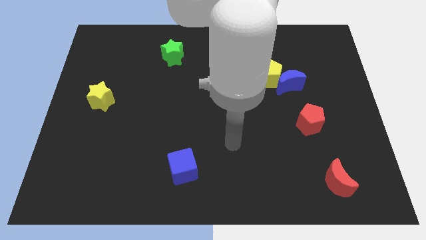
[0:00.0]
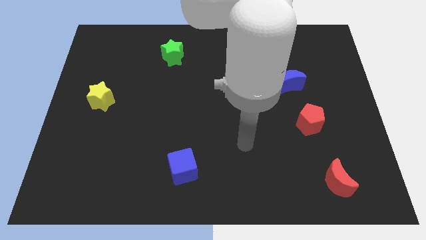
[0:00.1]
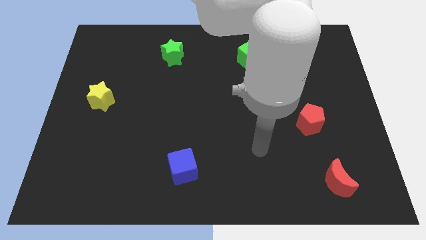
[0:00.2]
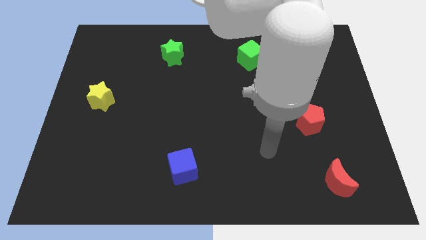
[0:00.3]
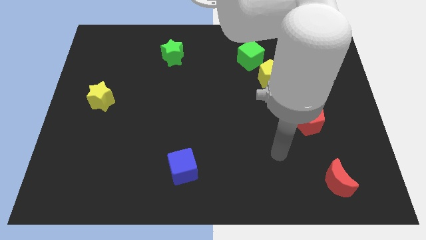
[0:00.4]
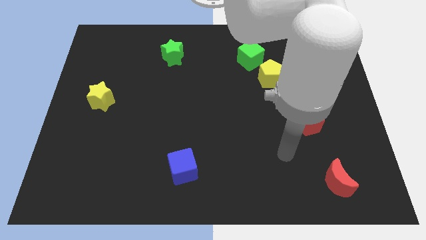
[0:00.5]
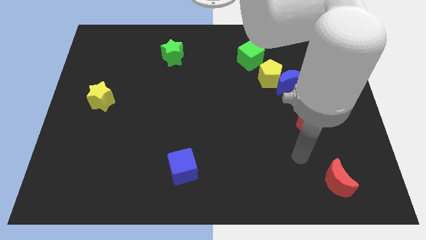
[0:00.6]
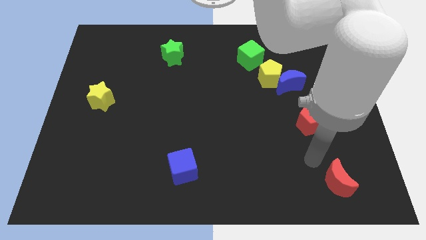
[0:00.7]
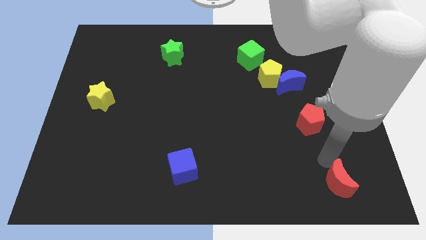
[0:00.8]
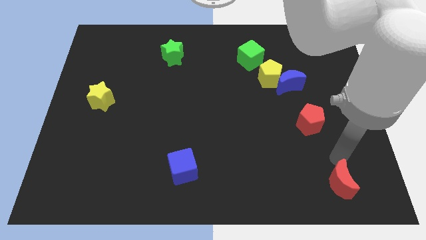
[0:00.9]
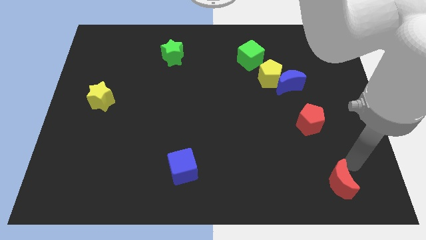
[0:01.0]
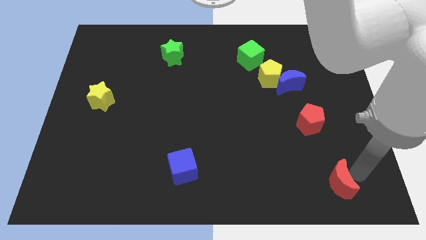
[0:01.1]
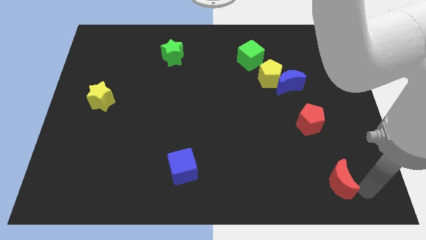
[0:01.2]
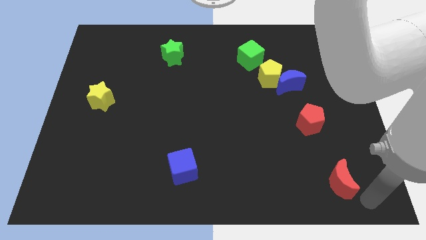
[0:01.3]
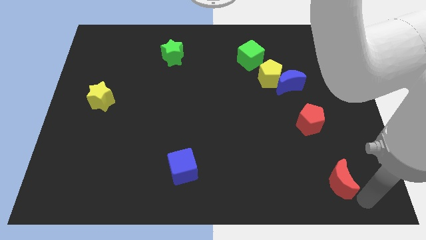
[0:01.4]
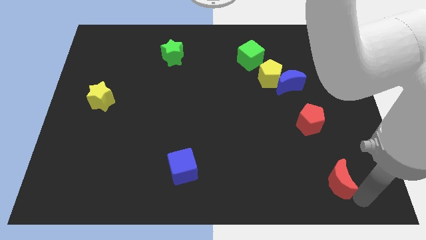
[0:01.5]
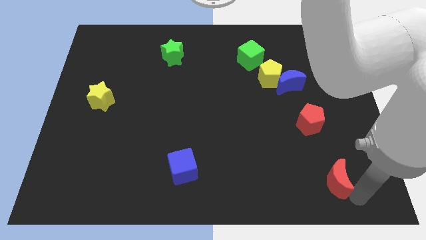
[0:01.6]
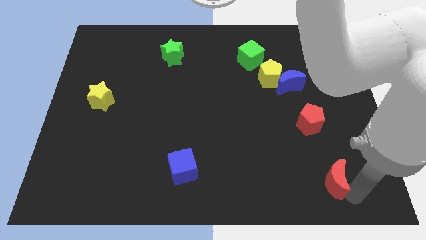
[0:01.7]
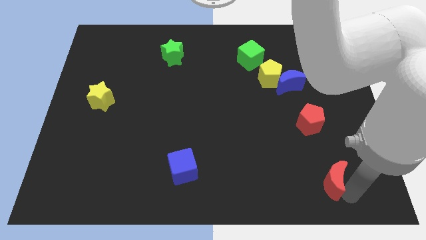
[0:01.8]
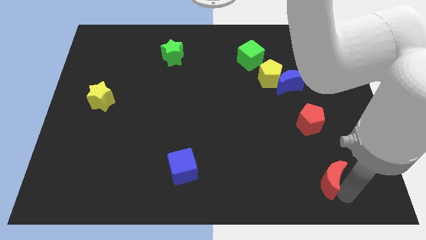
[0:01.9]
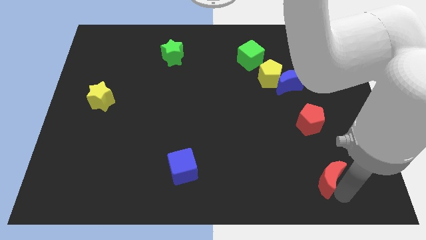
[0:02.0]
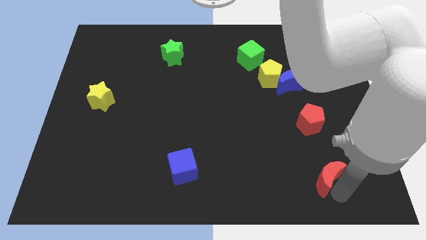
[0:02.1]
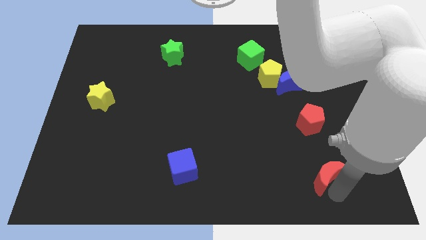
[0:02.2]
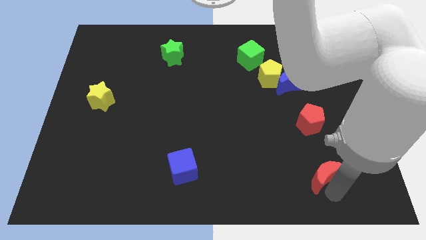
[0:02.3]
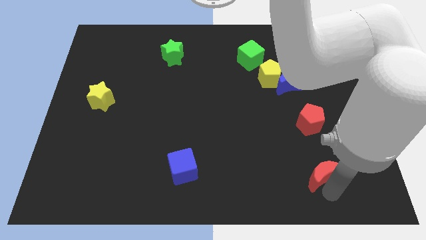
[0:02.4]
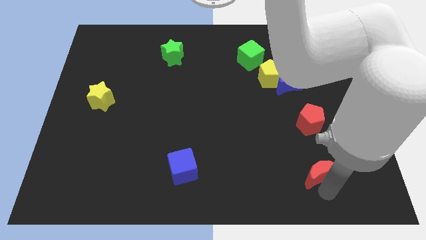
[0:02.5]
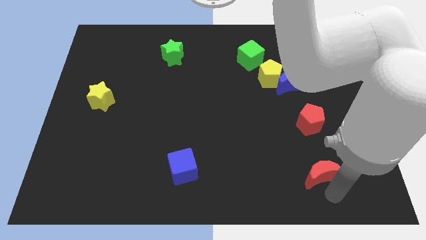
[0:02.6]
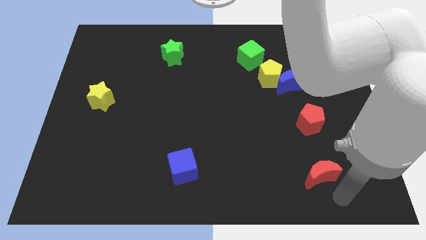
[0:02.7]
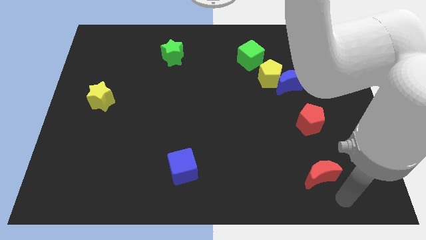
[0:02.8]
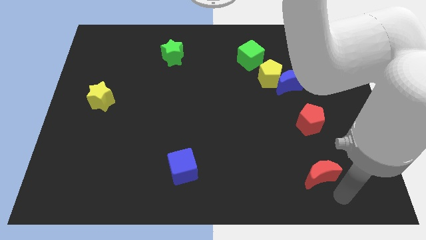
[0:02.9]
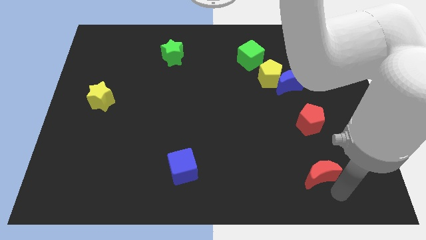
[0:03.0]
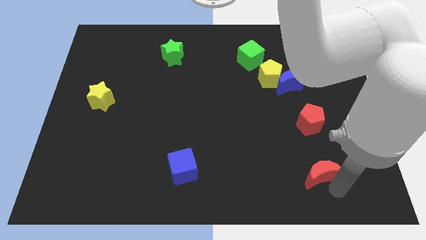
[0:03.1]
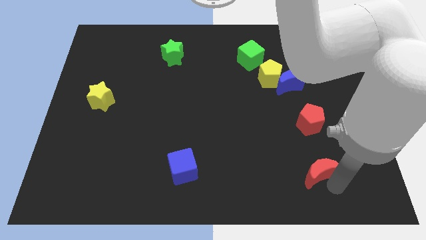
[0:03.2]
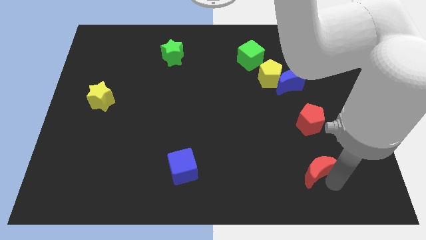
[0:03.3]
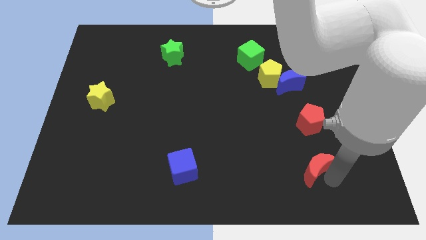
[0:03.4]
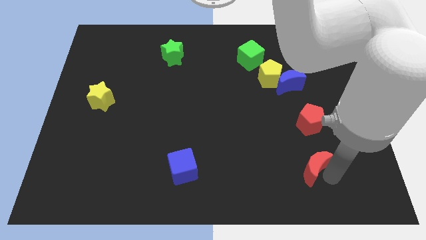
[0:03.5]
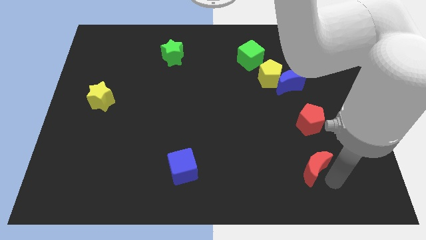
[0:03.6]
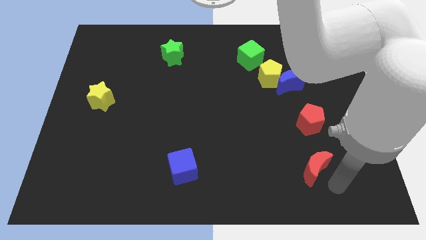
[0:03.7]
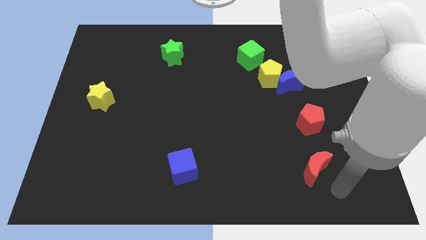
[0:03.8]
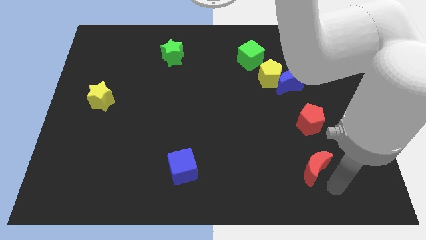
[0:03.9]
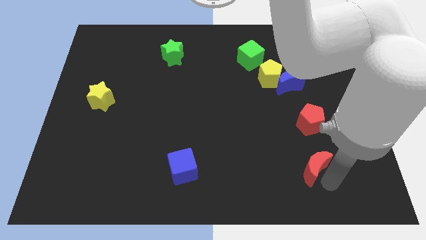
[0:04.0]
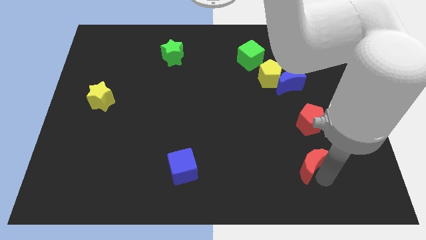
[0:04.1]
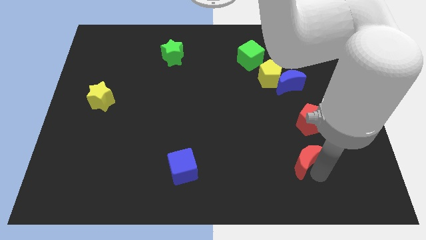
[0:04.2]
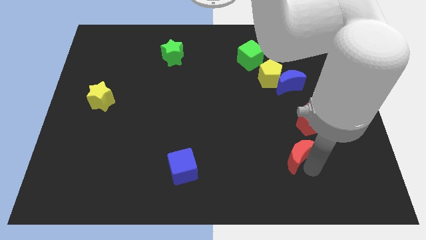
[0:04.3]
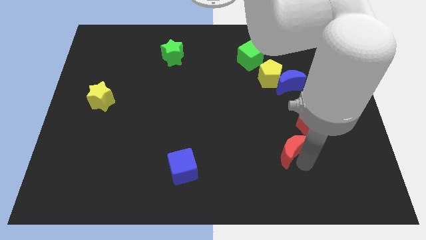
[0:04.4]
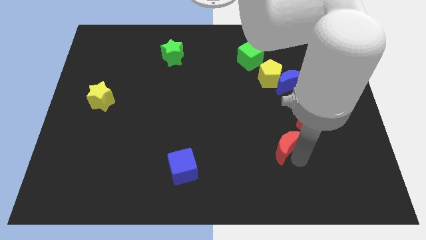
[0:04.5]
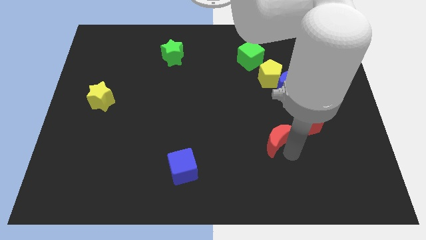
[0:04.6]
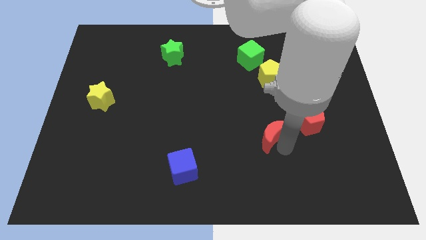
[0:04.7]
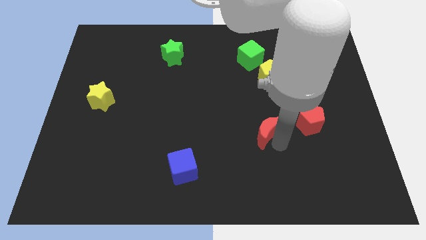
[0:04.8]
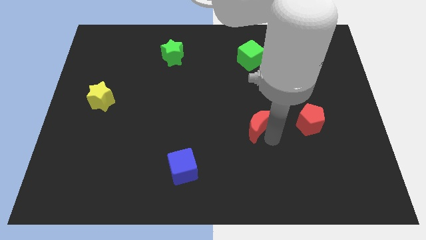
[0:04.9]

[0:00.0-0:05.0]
push the red moon up and then left

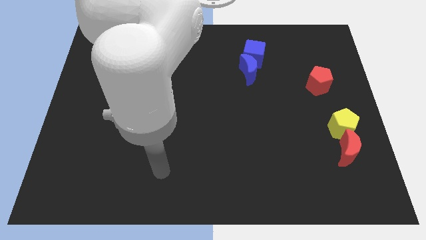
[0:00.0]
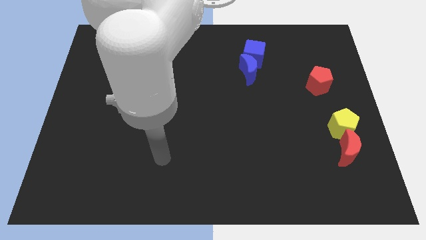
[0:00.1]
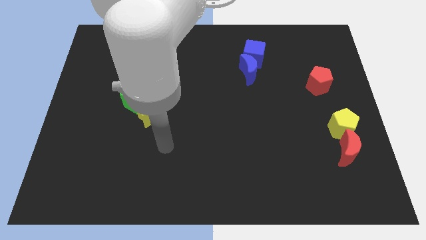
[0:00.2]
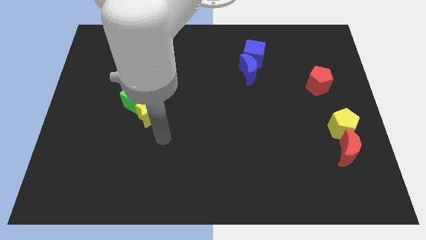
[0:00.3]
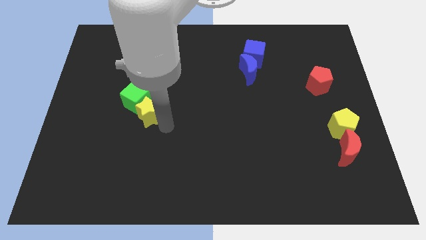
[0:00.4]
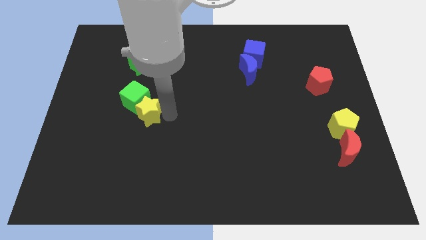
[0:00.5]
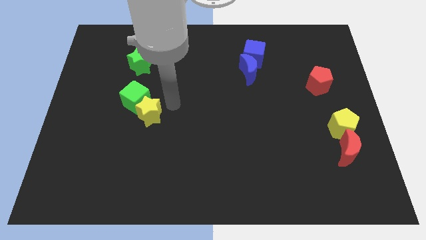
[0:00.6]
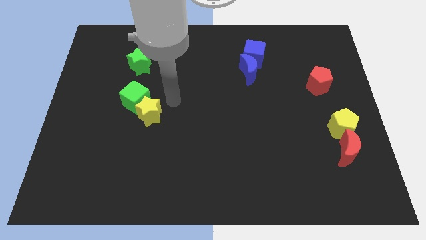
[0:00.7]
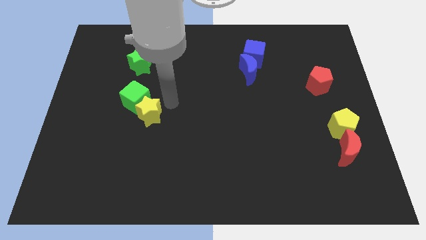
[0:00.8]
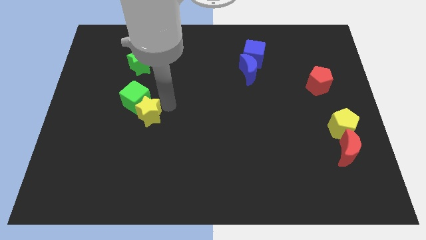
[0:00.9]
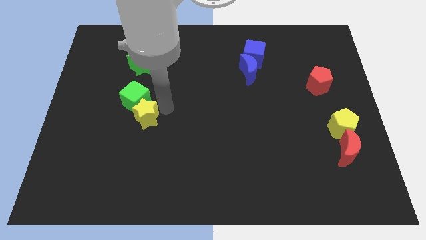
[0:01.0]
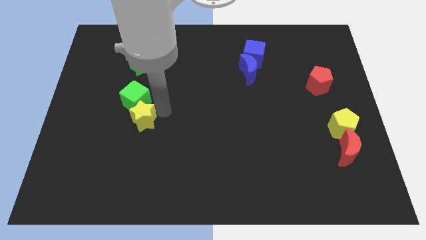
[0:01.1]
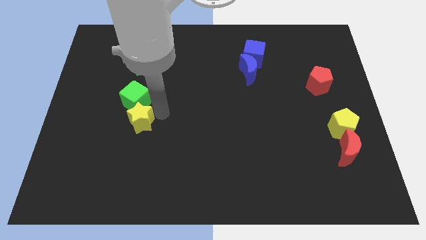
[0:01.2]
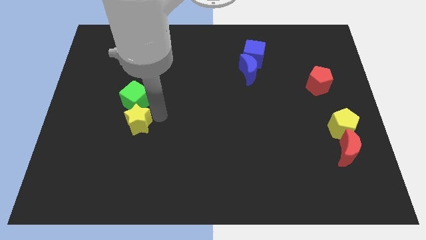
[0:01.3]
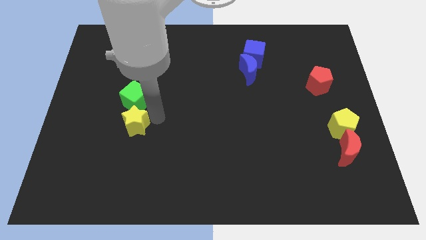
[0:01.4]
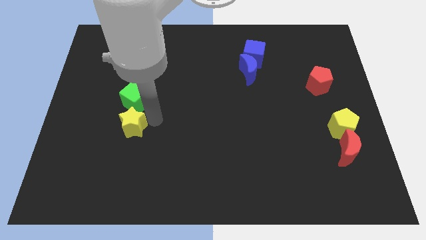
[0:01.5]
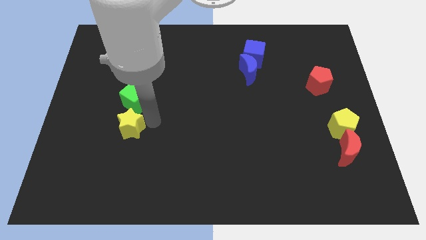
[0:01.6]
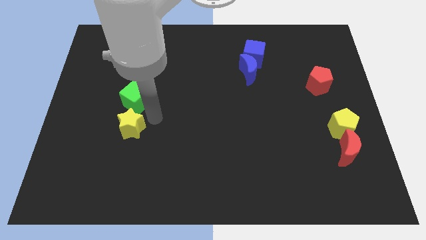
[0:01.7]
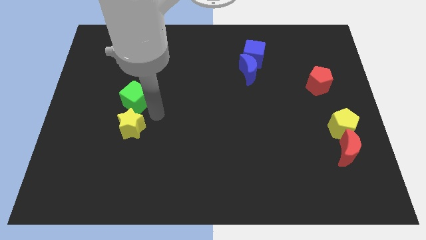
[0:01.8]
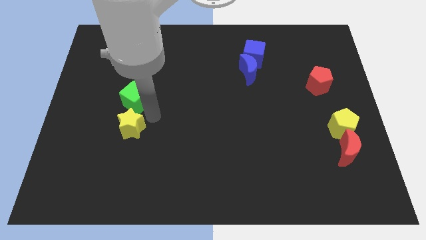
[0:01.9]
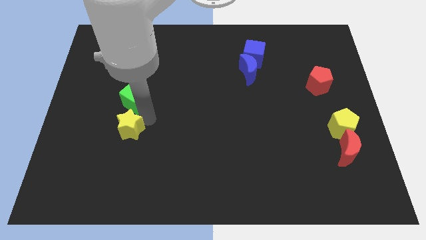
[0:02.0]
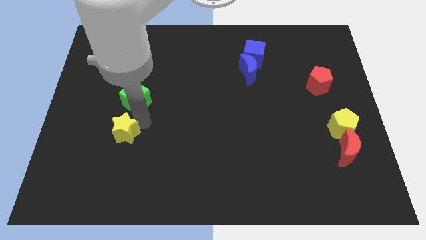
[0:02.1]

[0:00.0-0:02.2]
move the yellow star a little bit down and left

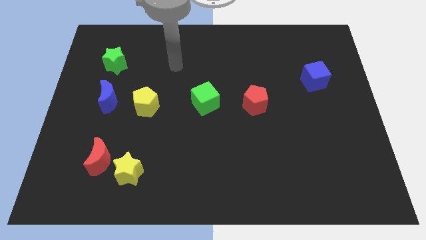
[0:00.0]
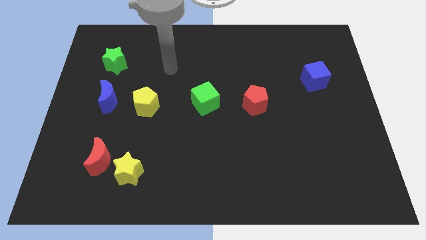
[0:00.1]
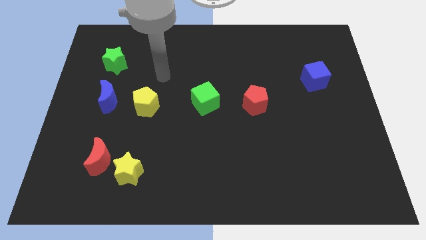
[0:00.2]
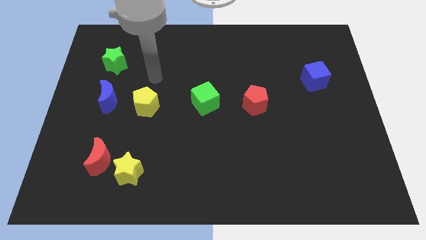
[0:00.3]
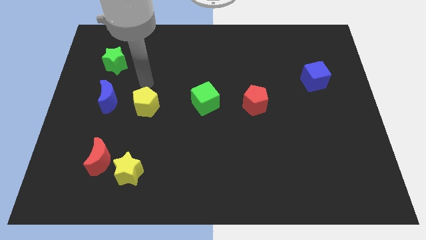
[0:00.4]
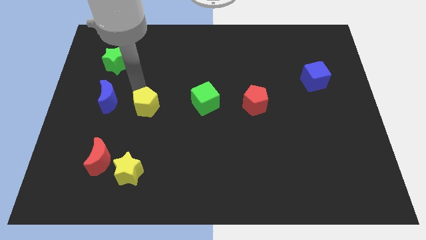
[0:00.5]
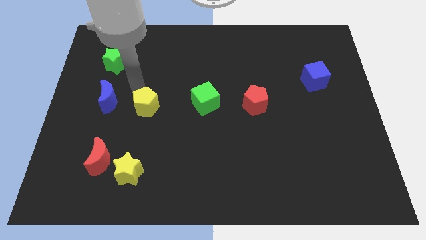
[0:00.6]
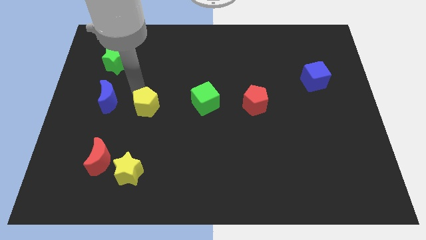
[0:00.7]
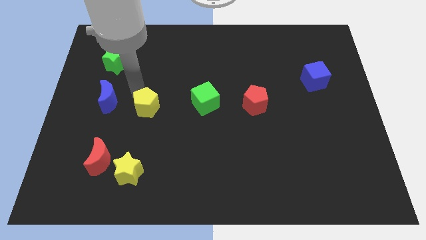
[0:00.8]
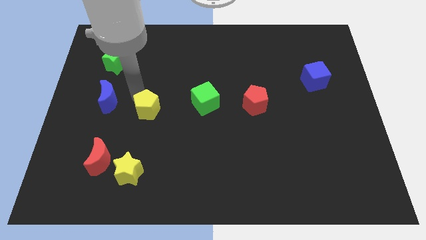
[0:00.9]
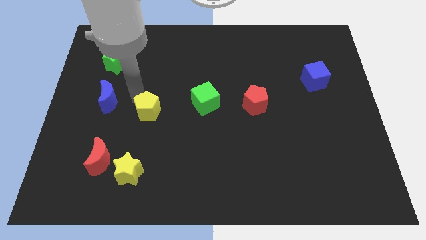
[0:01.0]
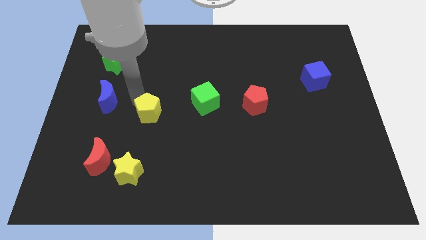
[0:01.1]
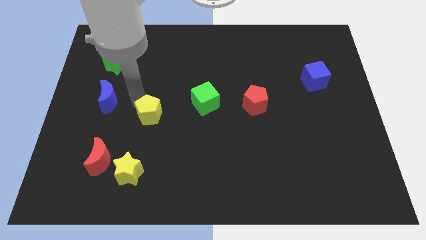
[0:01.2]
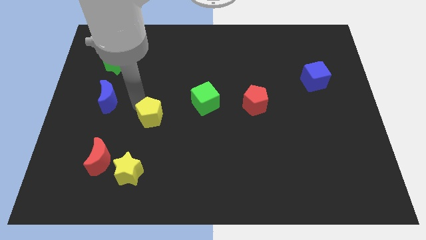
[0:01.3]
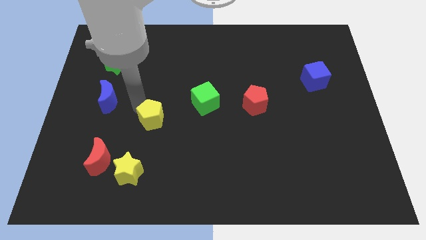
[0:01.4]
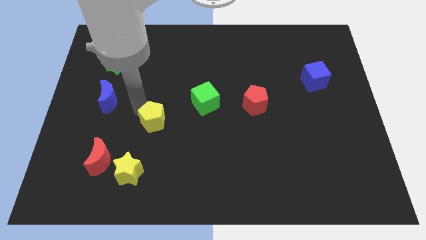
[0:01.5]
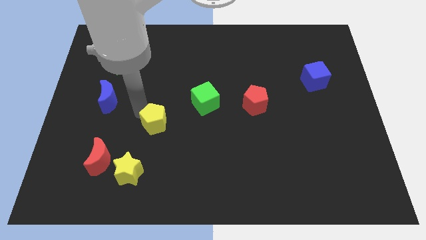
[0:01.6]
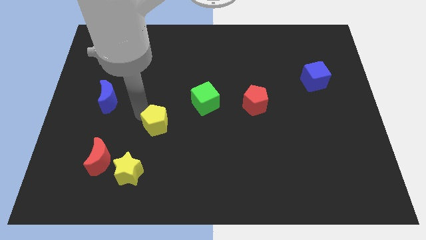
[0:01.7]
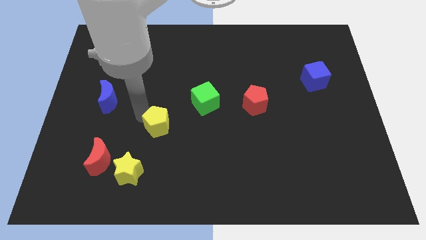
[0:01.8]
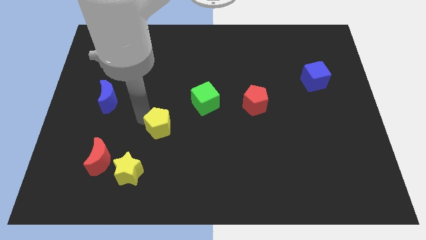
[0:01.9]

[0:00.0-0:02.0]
push the yellow pentagon a bit downwards and then to the right
